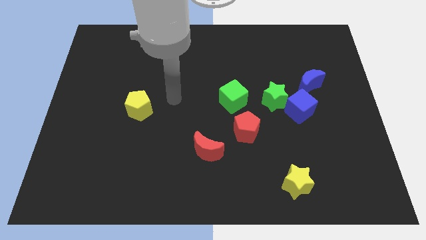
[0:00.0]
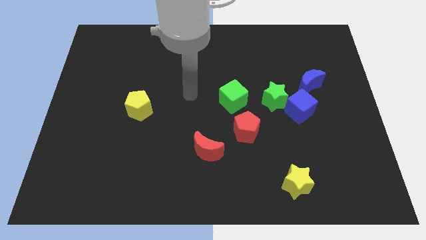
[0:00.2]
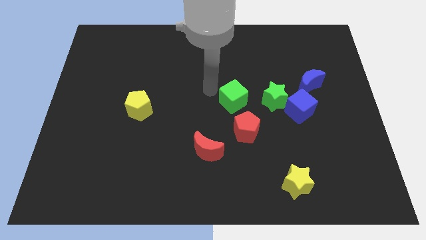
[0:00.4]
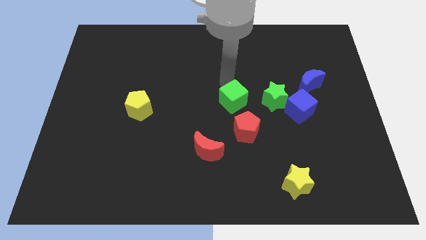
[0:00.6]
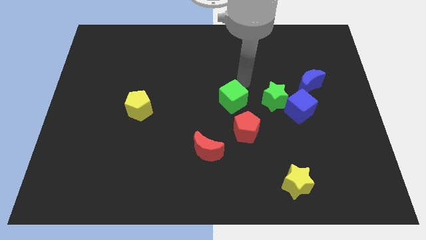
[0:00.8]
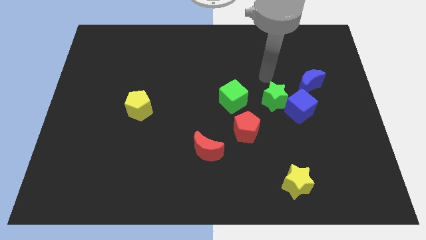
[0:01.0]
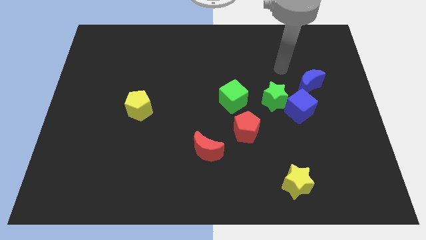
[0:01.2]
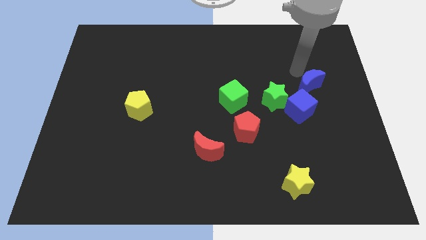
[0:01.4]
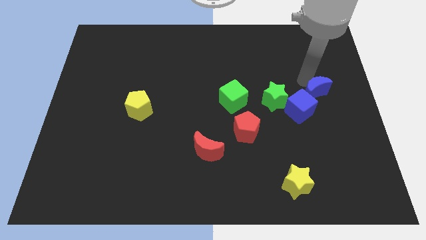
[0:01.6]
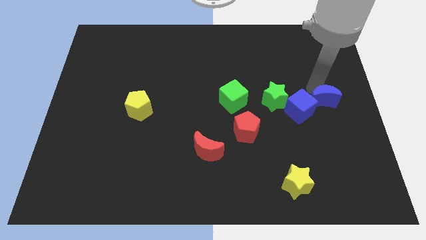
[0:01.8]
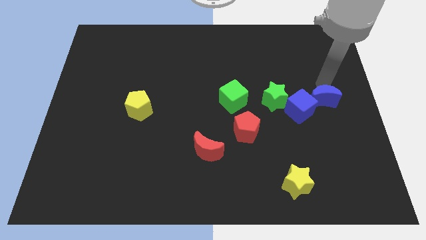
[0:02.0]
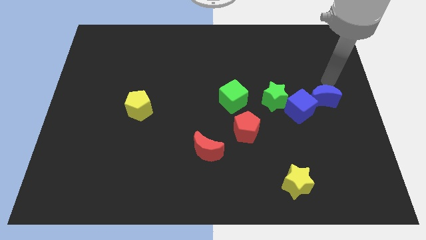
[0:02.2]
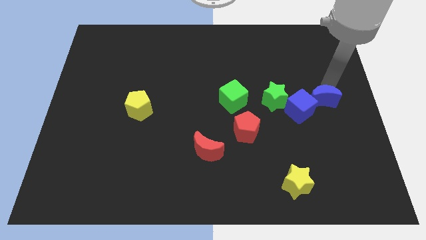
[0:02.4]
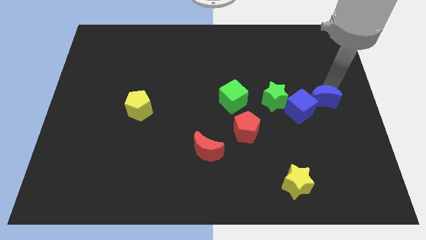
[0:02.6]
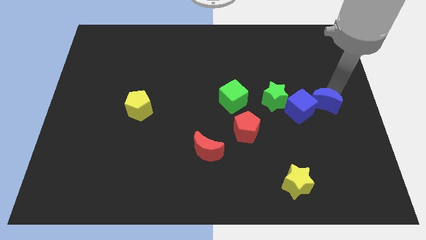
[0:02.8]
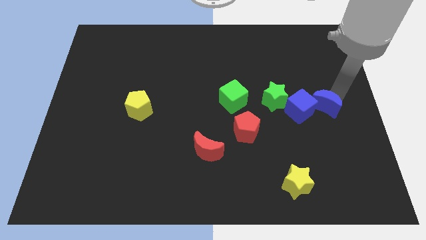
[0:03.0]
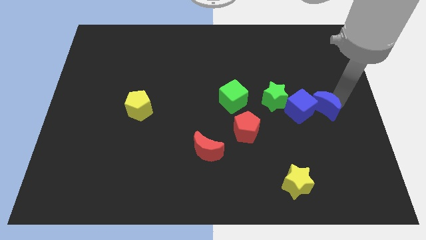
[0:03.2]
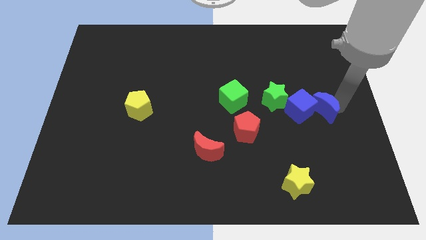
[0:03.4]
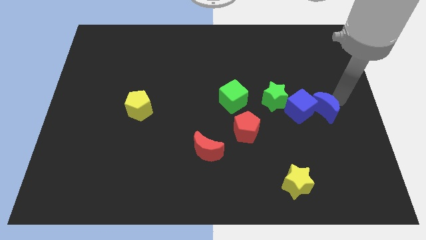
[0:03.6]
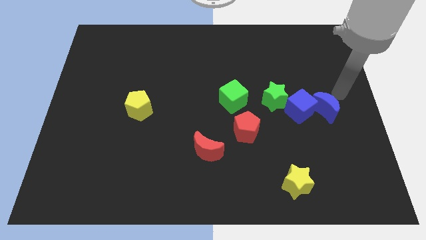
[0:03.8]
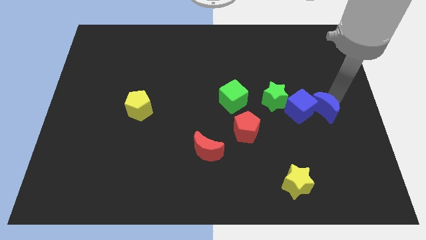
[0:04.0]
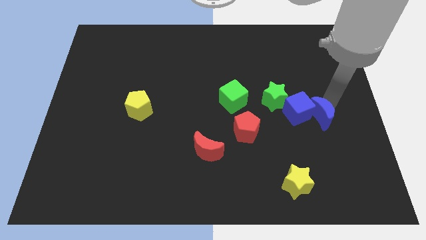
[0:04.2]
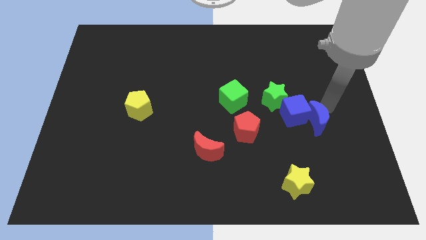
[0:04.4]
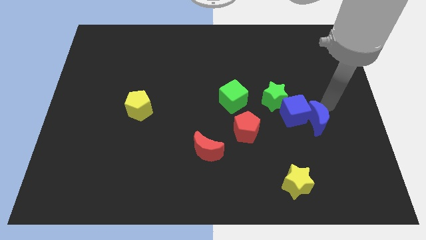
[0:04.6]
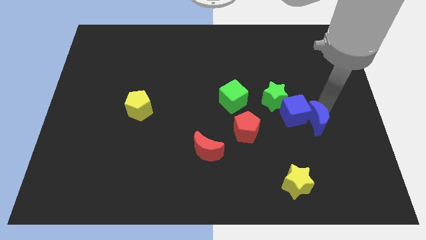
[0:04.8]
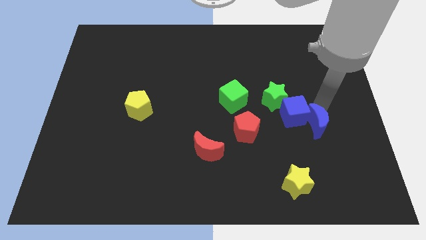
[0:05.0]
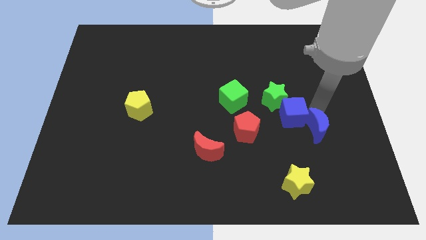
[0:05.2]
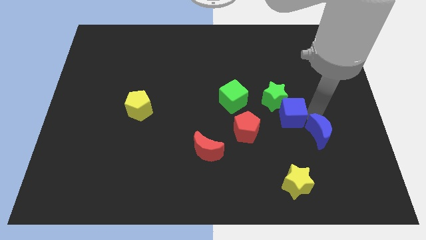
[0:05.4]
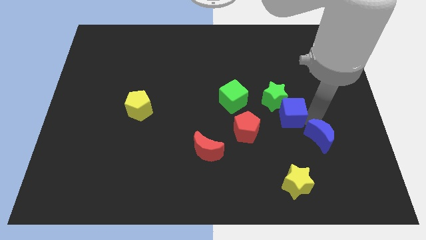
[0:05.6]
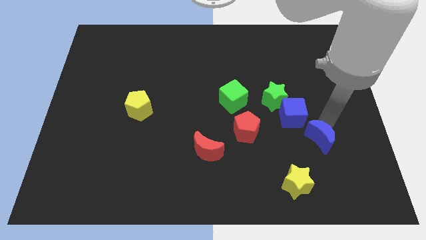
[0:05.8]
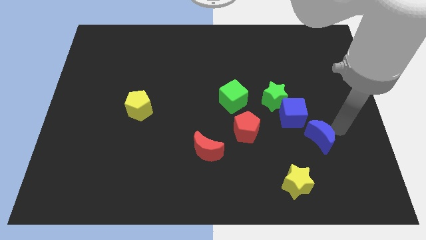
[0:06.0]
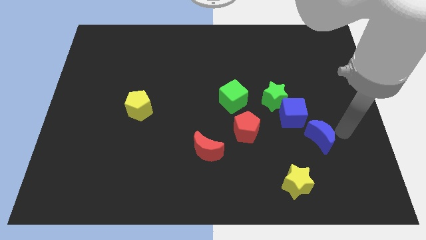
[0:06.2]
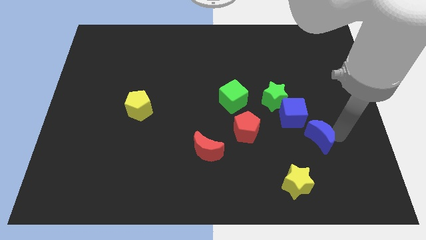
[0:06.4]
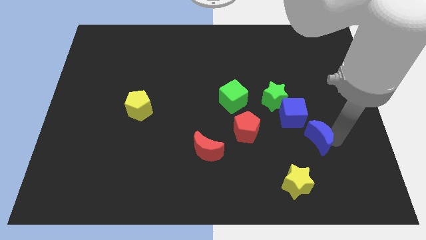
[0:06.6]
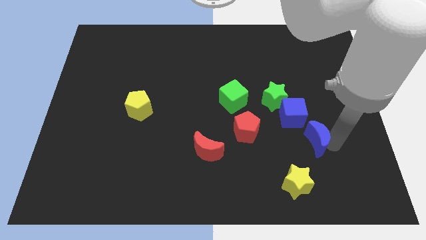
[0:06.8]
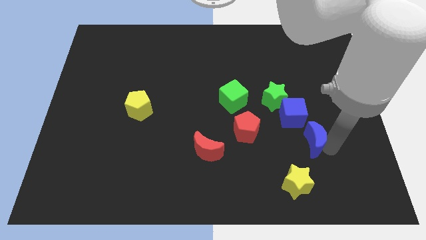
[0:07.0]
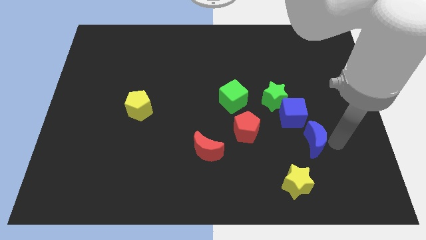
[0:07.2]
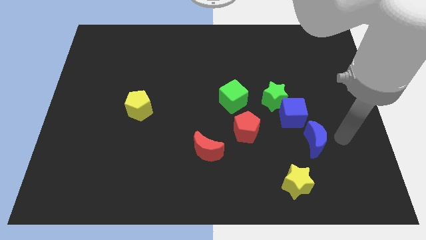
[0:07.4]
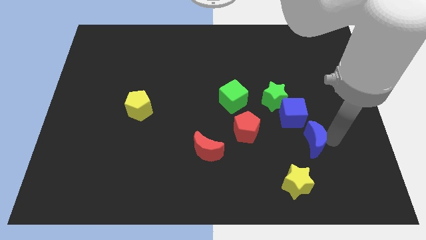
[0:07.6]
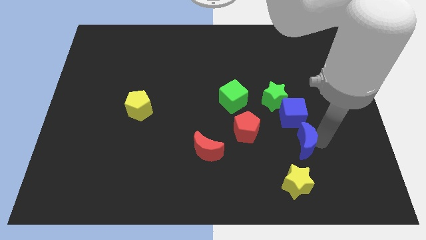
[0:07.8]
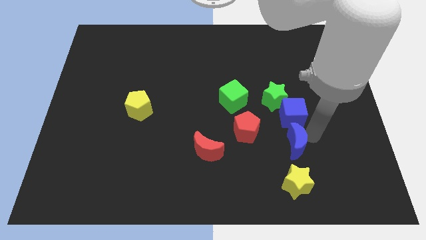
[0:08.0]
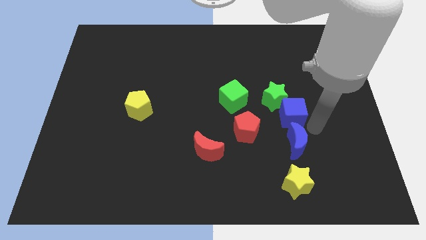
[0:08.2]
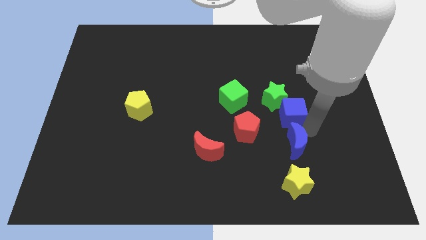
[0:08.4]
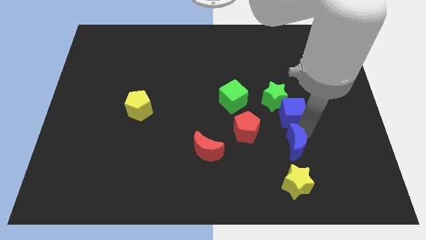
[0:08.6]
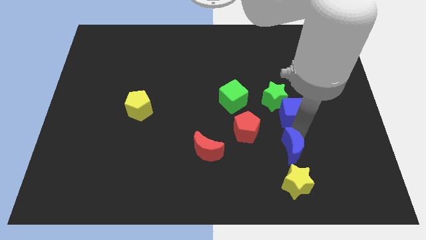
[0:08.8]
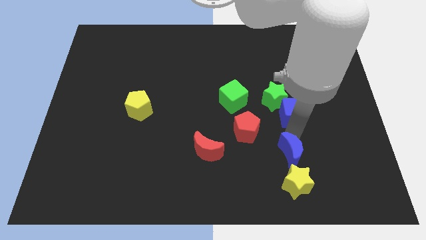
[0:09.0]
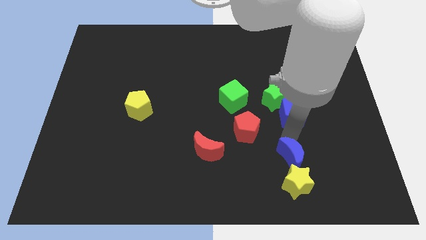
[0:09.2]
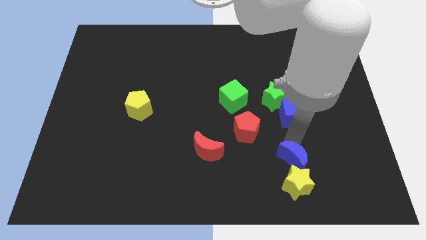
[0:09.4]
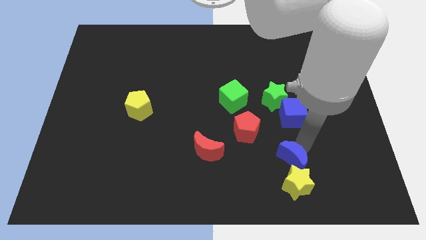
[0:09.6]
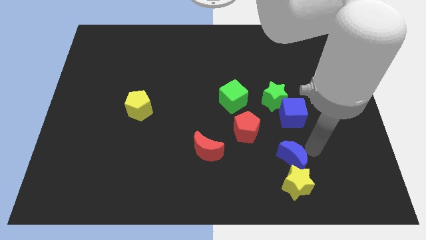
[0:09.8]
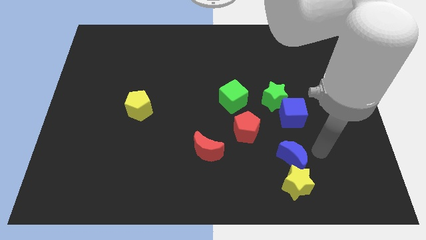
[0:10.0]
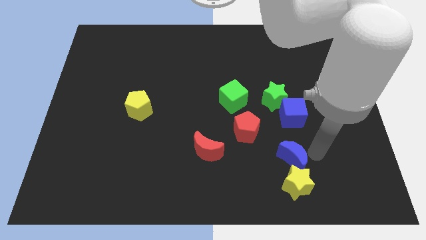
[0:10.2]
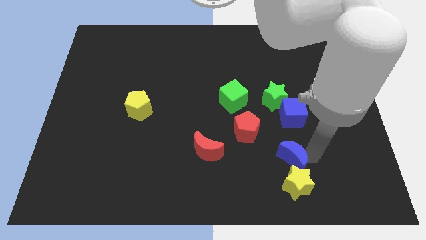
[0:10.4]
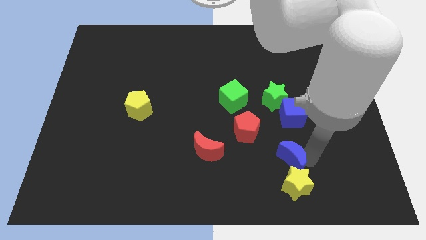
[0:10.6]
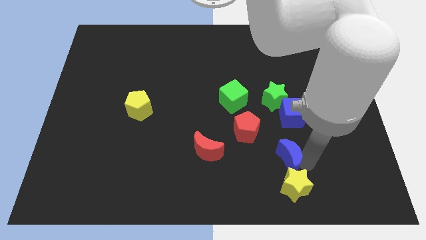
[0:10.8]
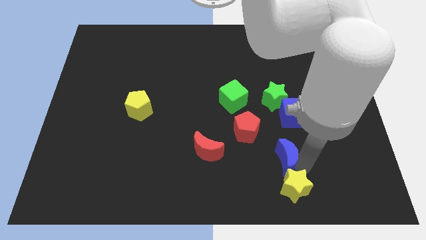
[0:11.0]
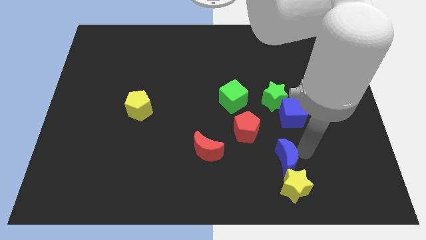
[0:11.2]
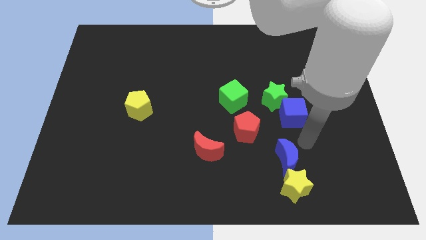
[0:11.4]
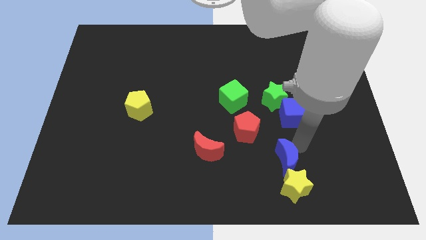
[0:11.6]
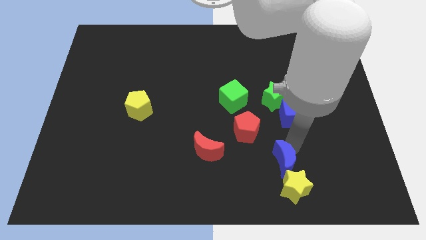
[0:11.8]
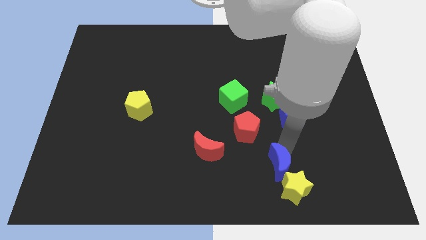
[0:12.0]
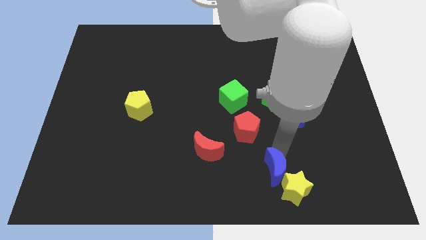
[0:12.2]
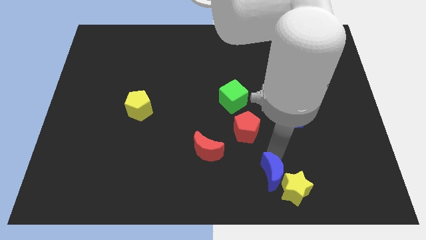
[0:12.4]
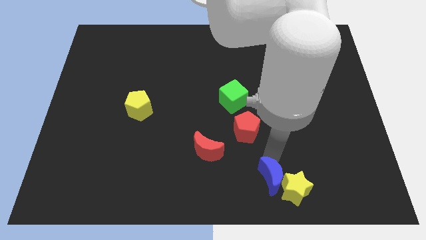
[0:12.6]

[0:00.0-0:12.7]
slide the blue moon to the bottom

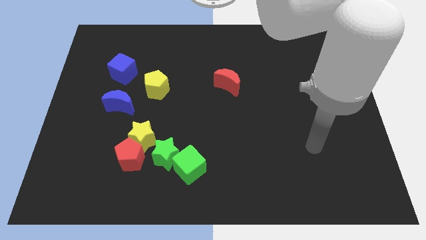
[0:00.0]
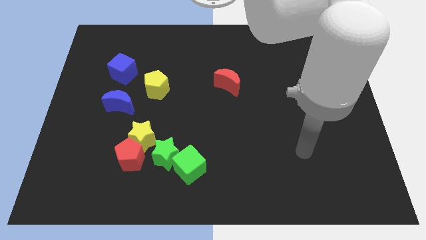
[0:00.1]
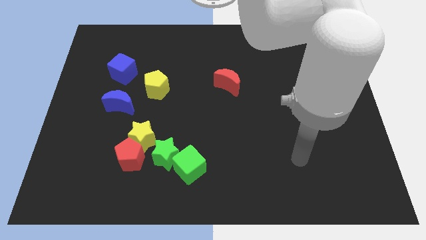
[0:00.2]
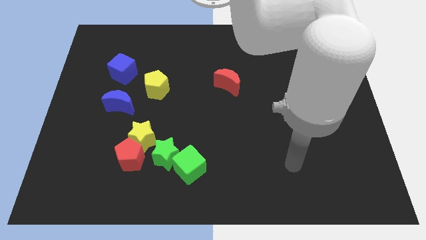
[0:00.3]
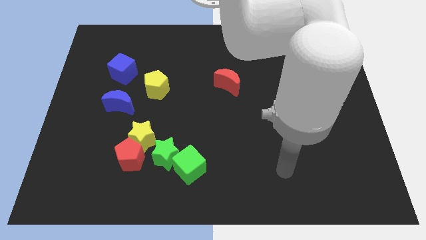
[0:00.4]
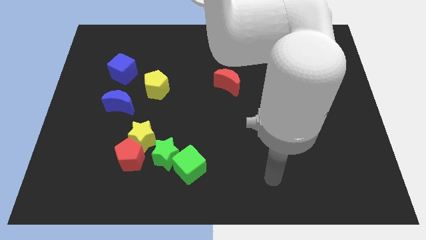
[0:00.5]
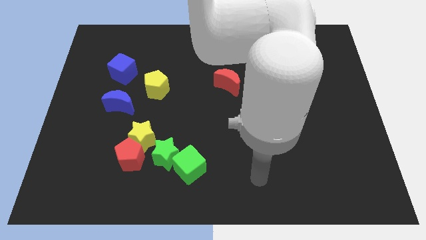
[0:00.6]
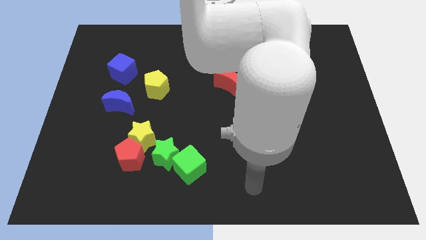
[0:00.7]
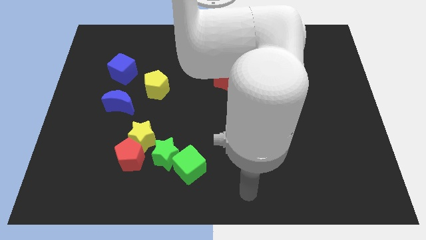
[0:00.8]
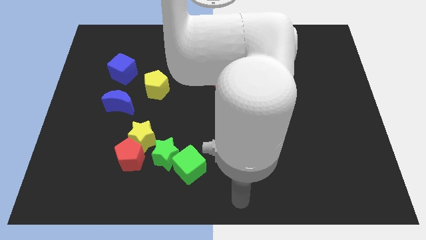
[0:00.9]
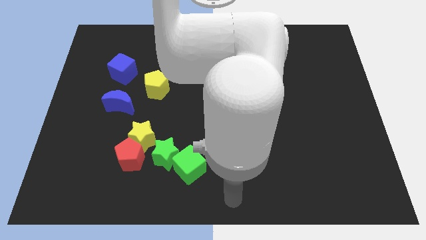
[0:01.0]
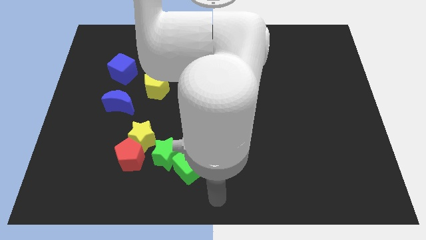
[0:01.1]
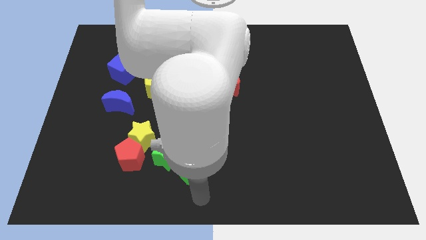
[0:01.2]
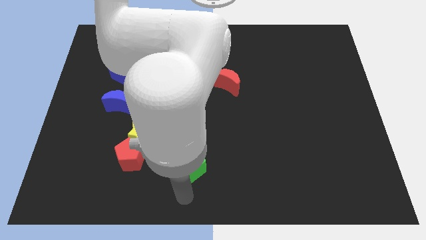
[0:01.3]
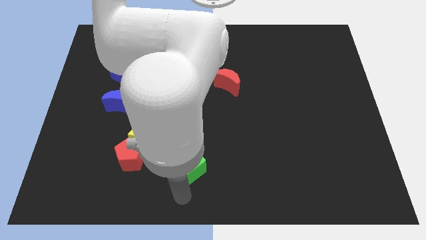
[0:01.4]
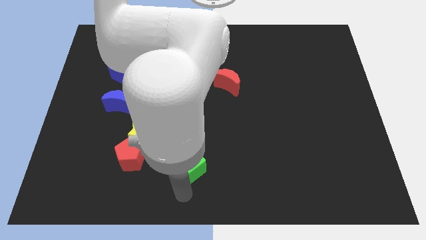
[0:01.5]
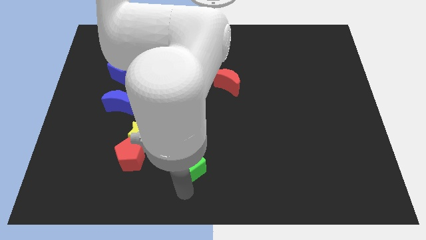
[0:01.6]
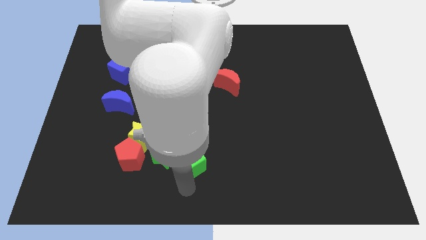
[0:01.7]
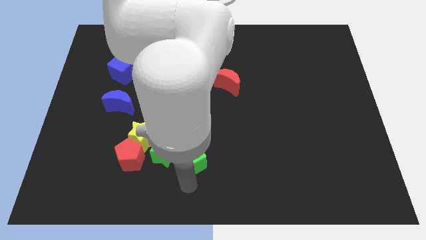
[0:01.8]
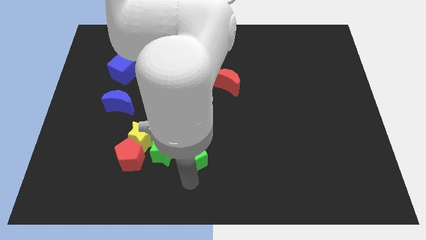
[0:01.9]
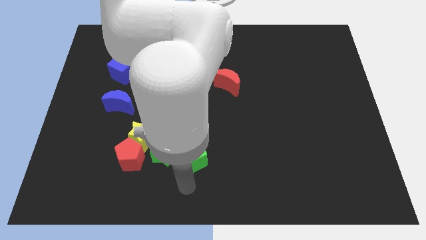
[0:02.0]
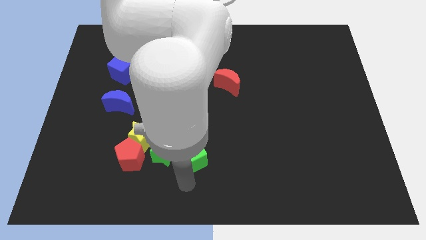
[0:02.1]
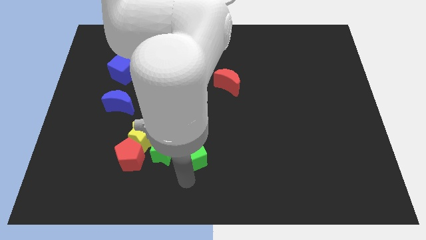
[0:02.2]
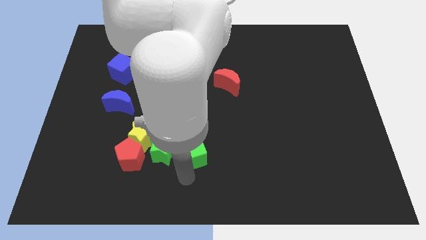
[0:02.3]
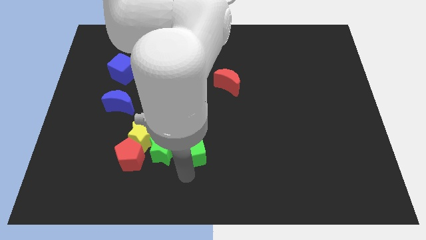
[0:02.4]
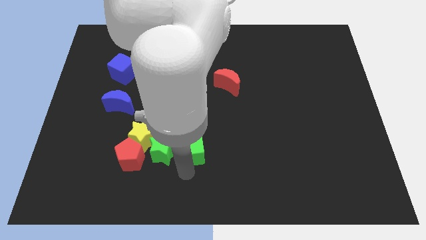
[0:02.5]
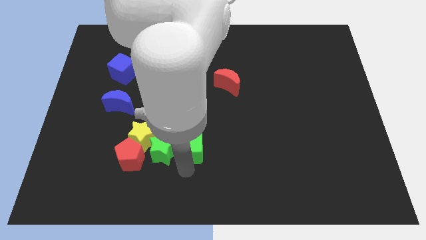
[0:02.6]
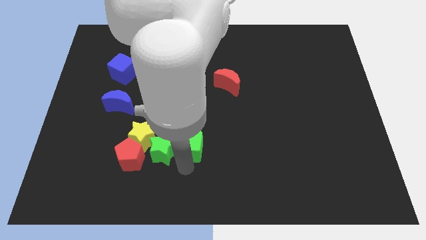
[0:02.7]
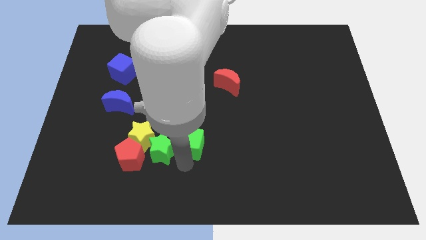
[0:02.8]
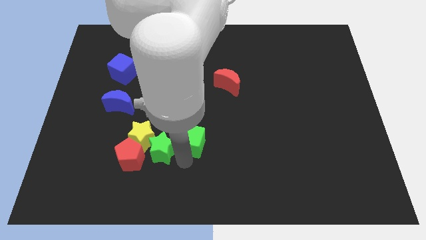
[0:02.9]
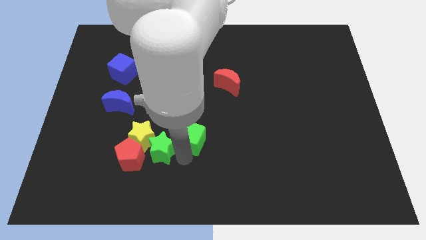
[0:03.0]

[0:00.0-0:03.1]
push the green cube to the center of the board
